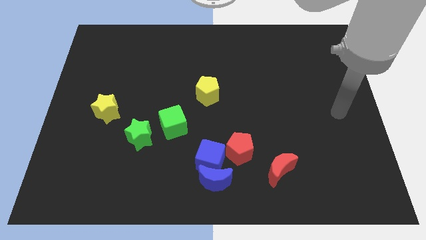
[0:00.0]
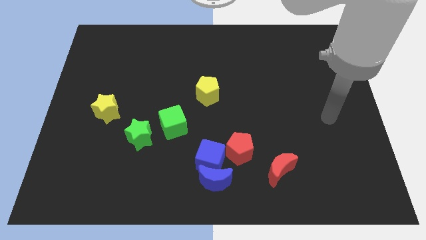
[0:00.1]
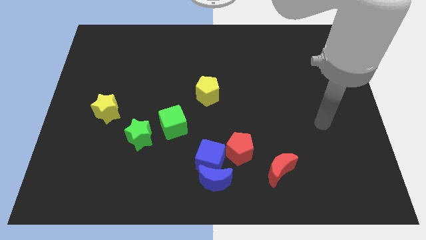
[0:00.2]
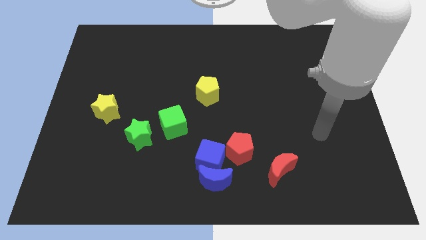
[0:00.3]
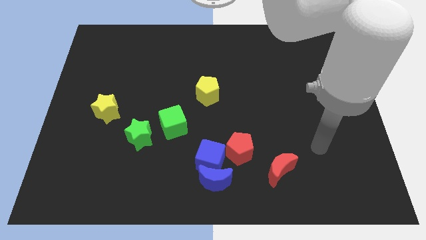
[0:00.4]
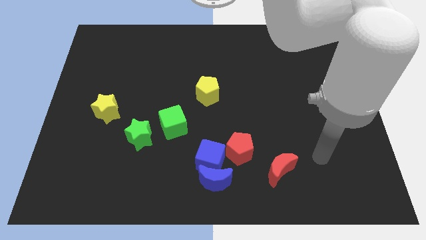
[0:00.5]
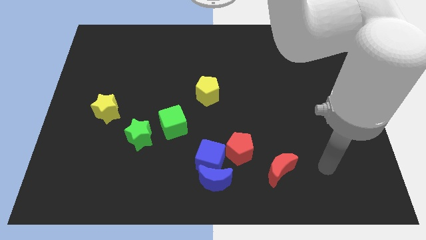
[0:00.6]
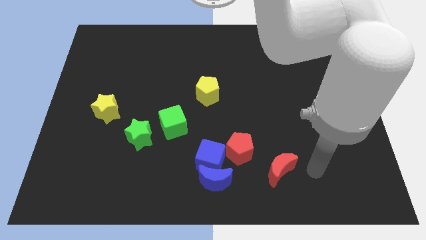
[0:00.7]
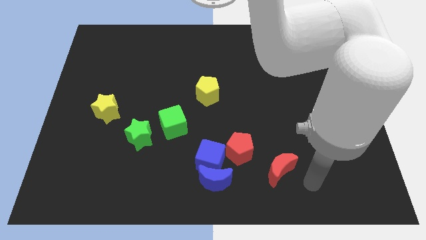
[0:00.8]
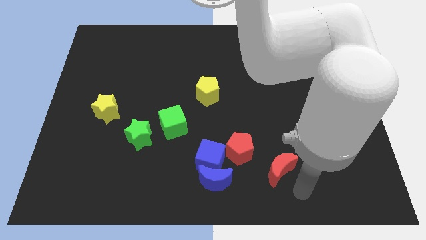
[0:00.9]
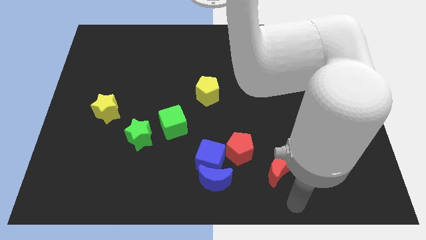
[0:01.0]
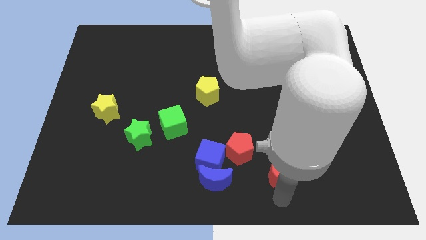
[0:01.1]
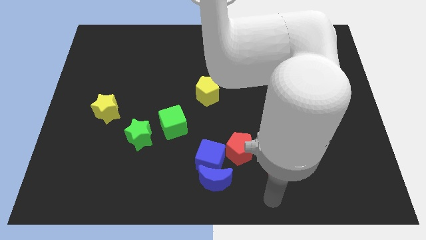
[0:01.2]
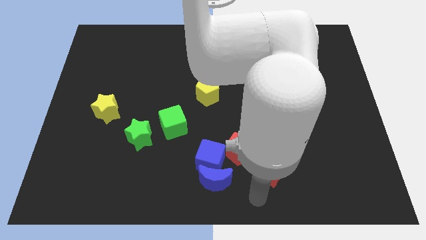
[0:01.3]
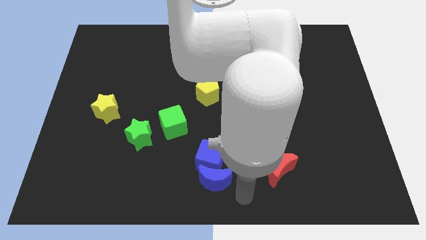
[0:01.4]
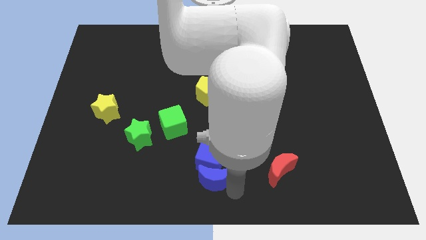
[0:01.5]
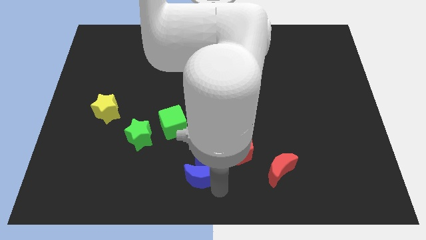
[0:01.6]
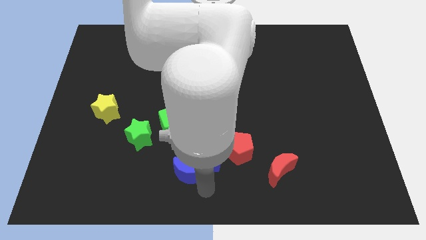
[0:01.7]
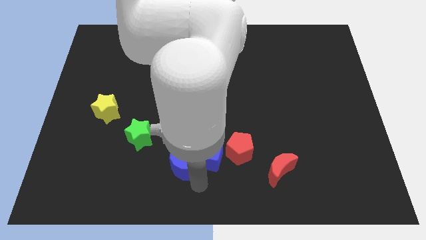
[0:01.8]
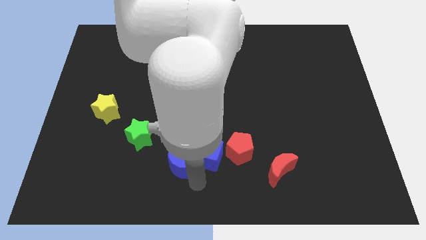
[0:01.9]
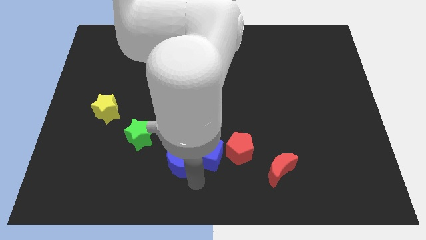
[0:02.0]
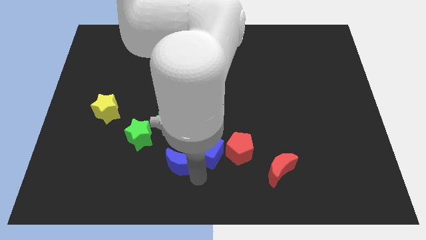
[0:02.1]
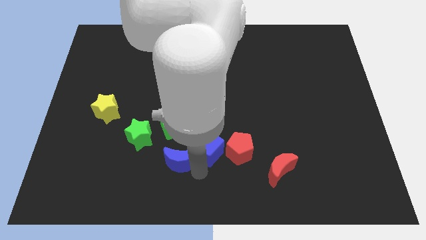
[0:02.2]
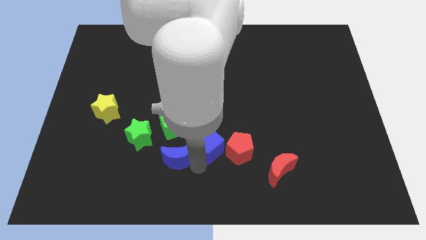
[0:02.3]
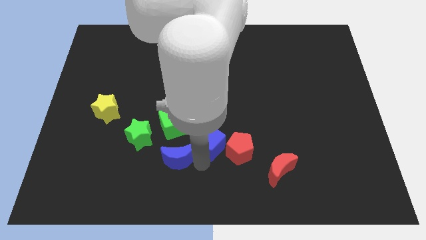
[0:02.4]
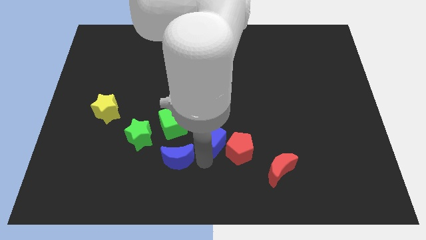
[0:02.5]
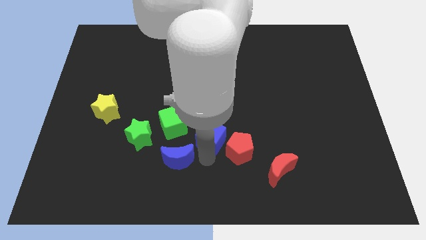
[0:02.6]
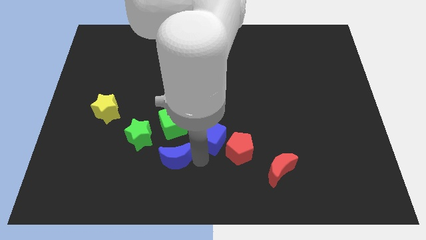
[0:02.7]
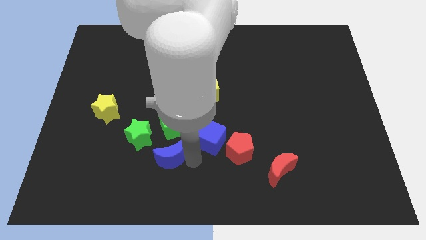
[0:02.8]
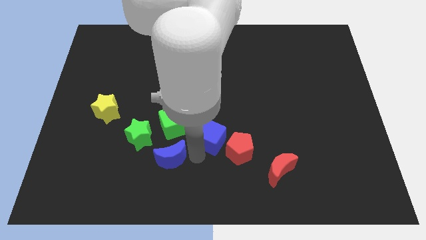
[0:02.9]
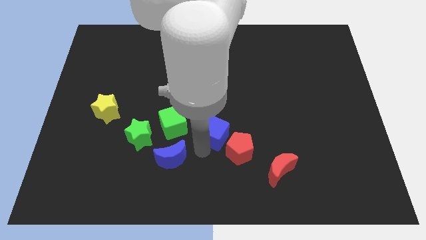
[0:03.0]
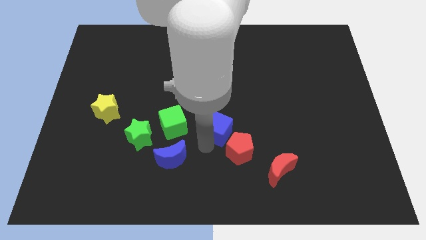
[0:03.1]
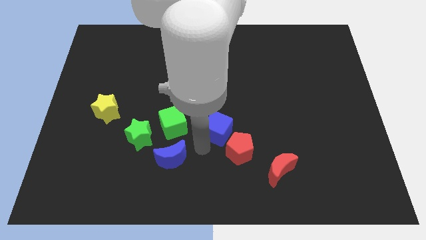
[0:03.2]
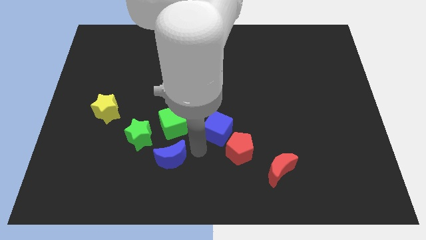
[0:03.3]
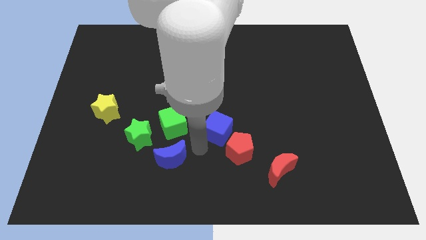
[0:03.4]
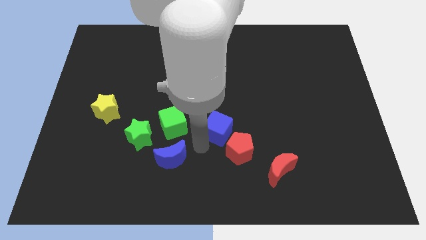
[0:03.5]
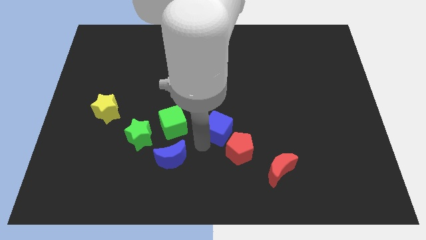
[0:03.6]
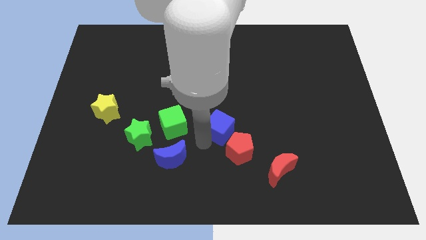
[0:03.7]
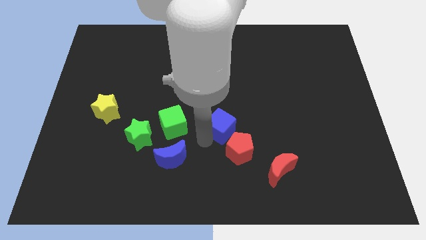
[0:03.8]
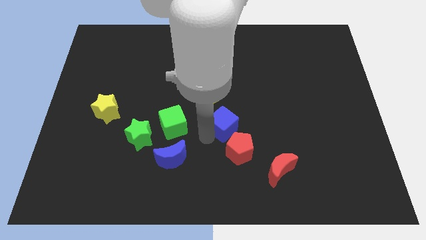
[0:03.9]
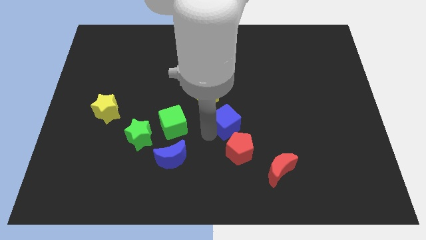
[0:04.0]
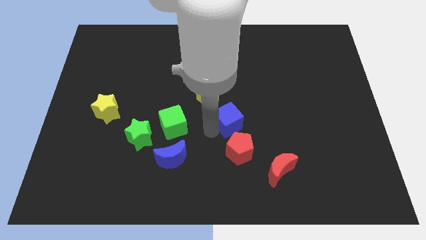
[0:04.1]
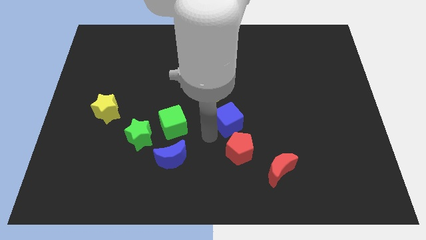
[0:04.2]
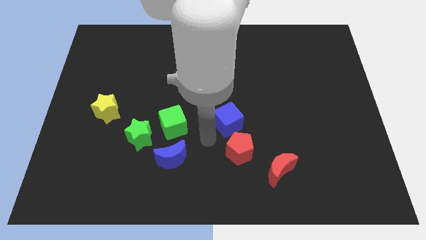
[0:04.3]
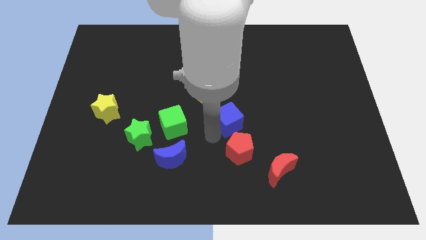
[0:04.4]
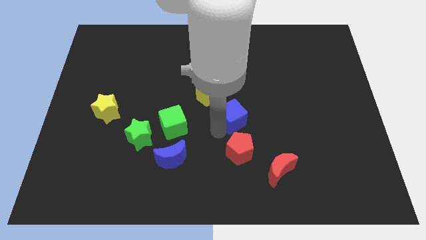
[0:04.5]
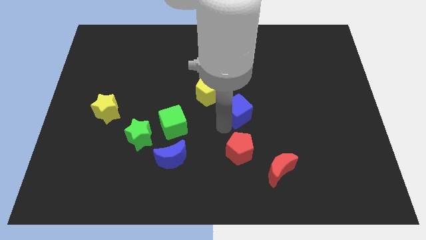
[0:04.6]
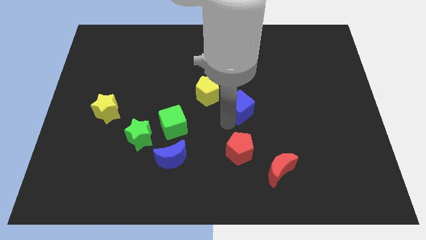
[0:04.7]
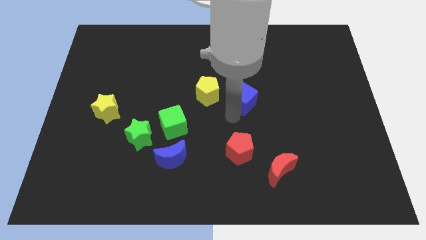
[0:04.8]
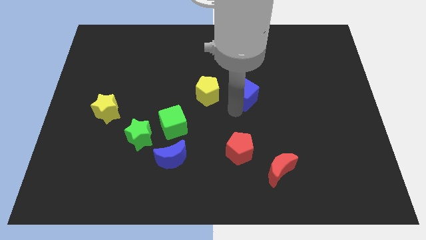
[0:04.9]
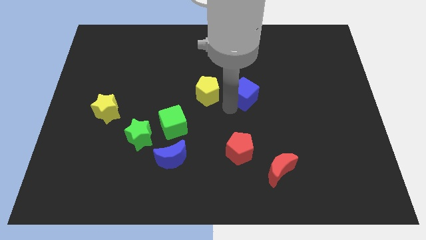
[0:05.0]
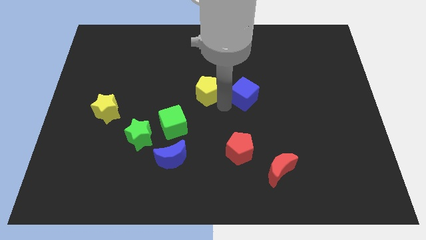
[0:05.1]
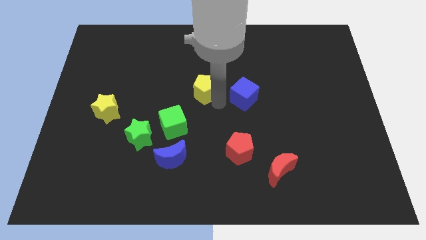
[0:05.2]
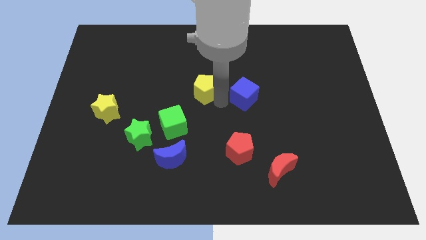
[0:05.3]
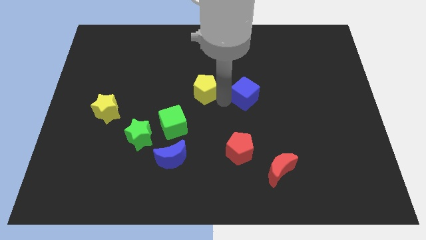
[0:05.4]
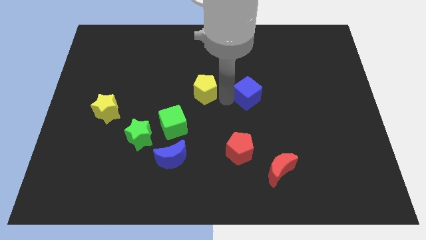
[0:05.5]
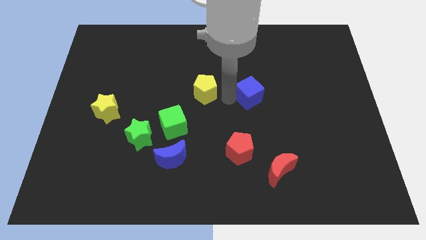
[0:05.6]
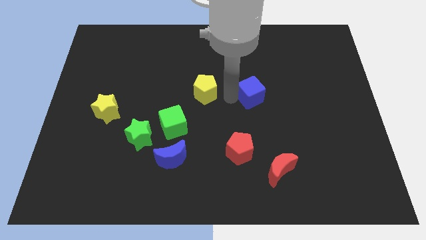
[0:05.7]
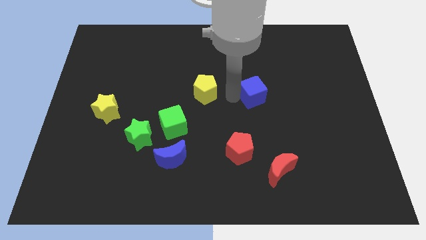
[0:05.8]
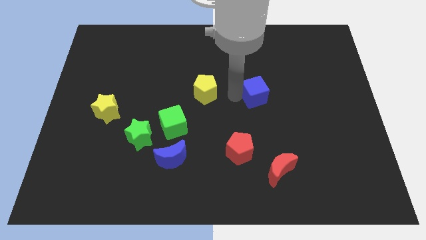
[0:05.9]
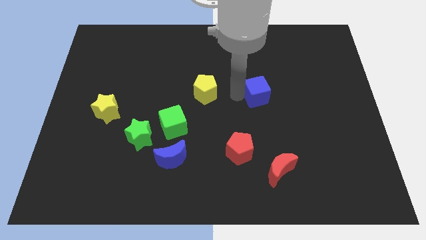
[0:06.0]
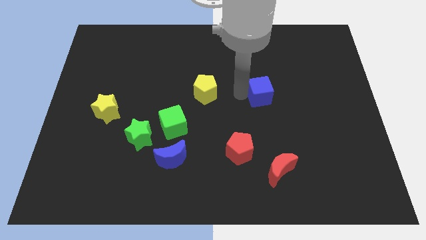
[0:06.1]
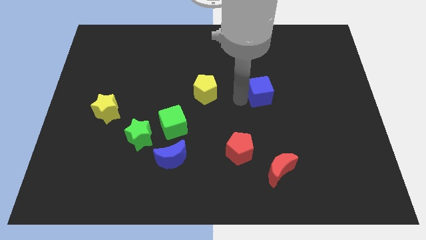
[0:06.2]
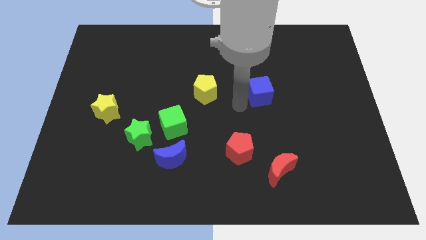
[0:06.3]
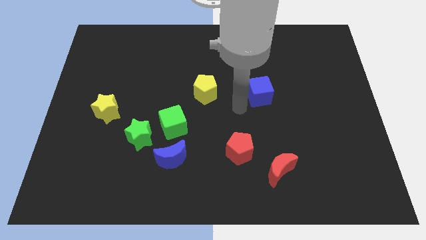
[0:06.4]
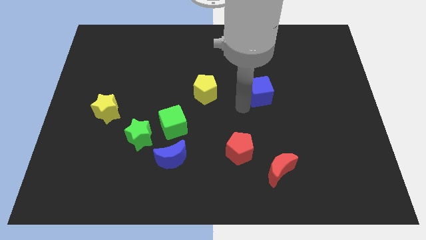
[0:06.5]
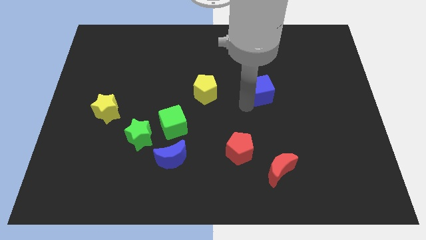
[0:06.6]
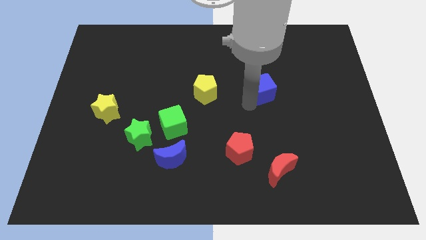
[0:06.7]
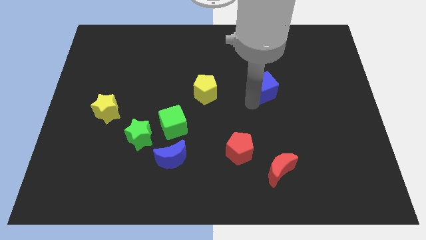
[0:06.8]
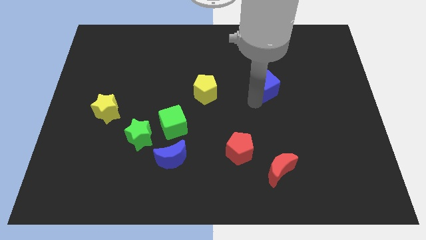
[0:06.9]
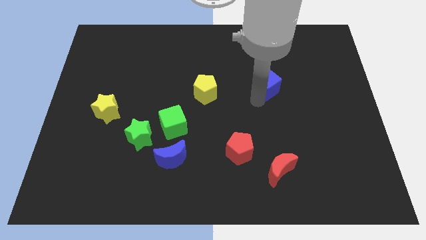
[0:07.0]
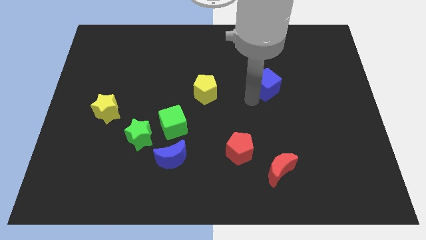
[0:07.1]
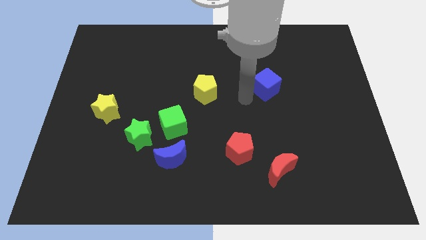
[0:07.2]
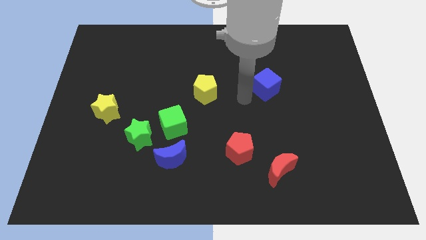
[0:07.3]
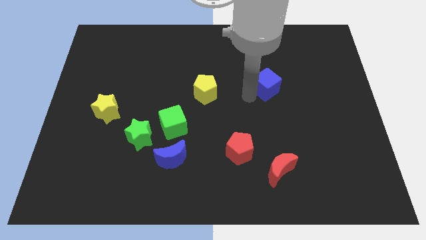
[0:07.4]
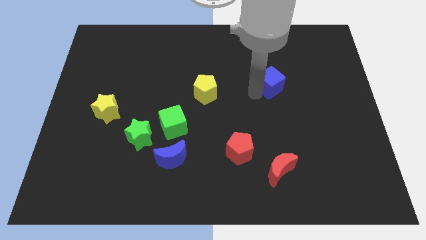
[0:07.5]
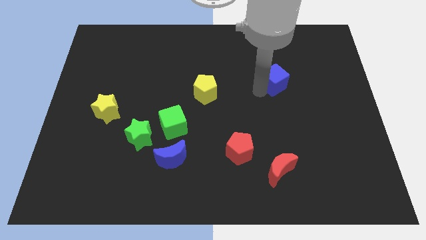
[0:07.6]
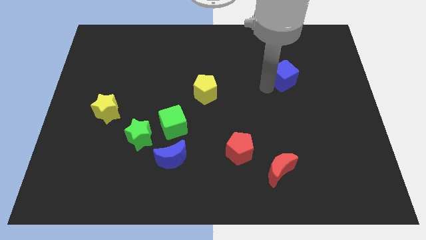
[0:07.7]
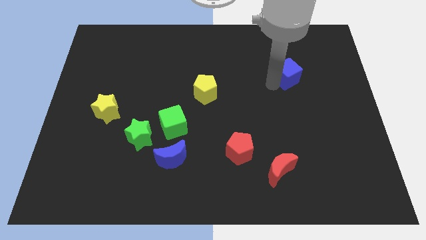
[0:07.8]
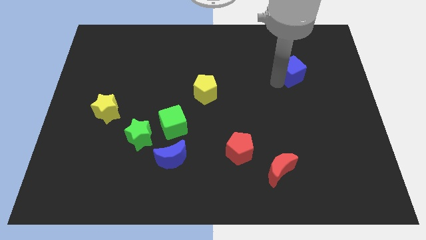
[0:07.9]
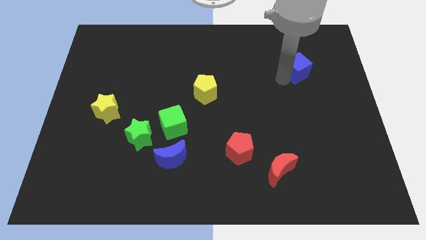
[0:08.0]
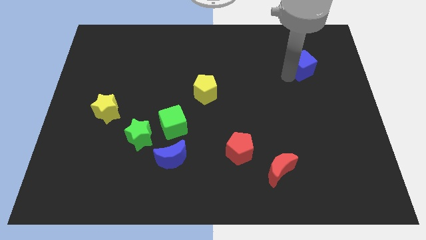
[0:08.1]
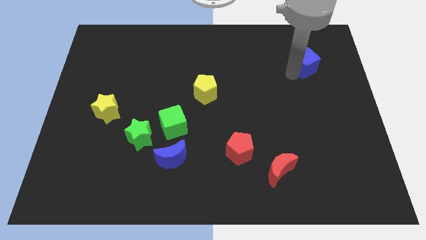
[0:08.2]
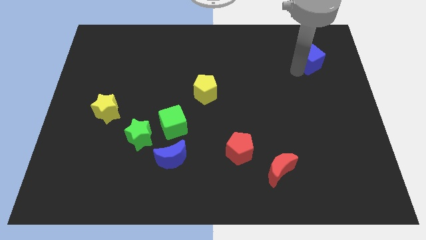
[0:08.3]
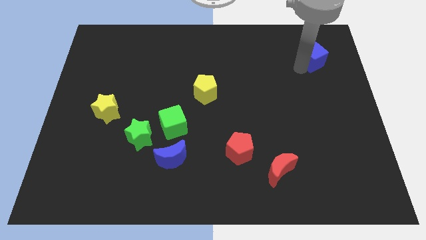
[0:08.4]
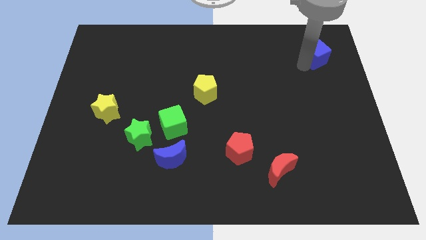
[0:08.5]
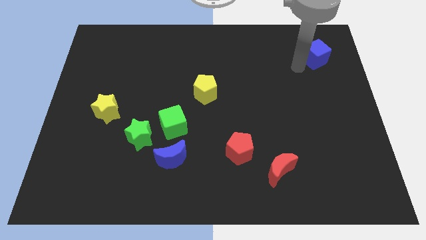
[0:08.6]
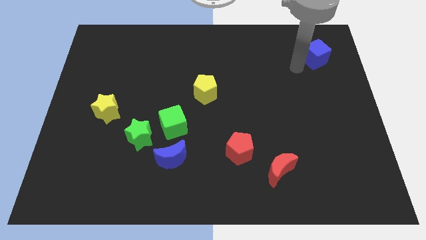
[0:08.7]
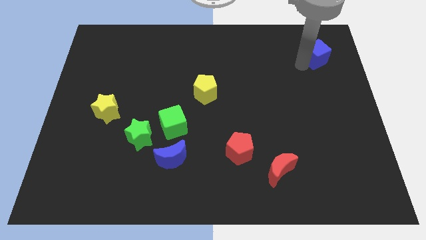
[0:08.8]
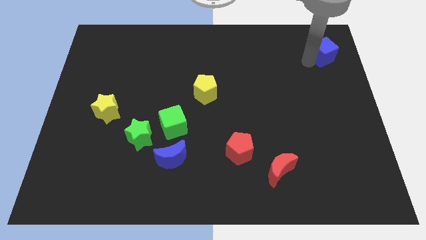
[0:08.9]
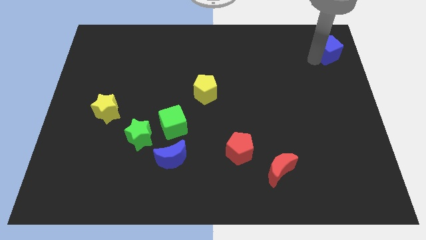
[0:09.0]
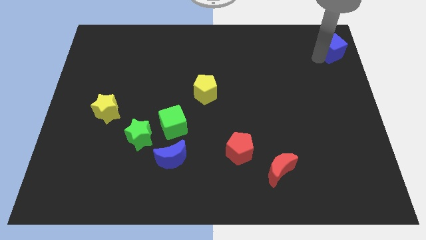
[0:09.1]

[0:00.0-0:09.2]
slide the blue cube to the top right
